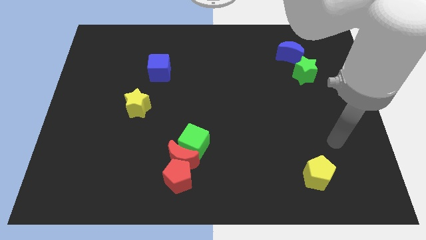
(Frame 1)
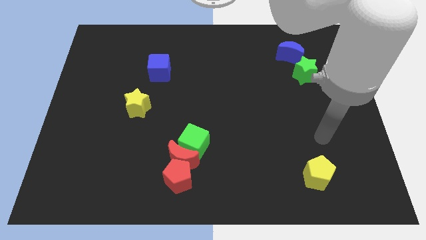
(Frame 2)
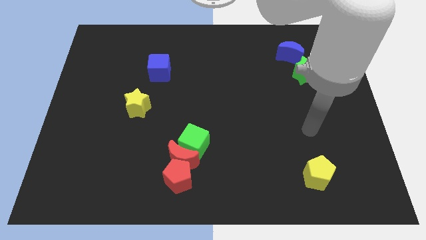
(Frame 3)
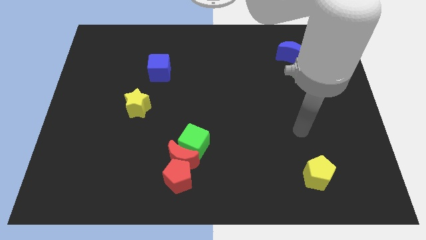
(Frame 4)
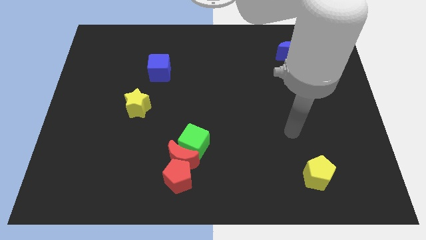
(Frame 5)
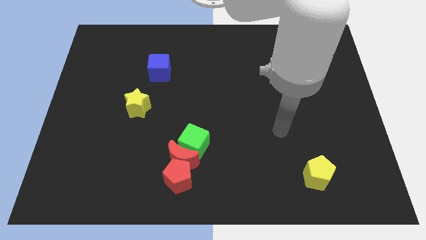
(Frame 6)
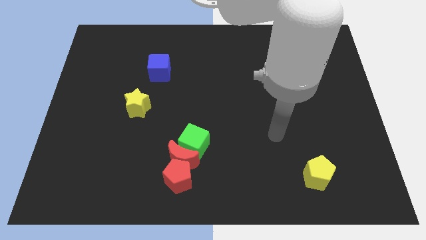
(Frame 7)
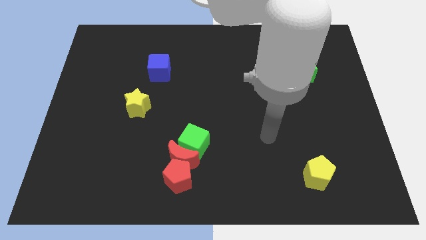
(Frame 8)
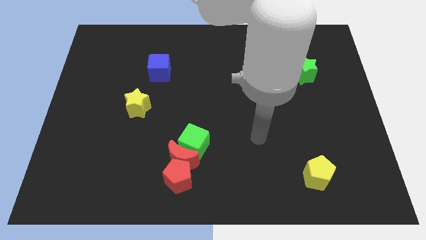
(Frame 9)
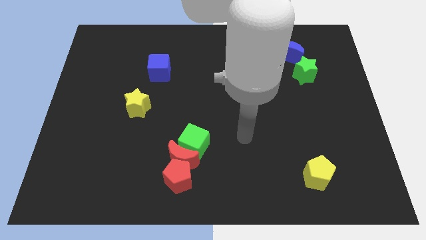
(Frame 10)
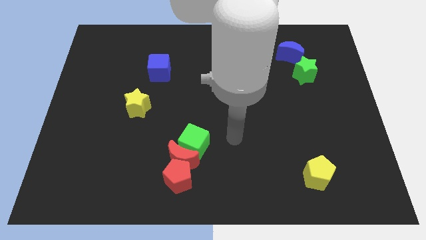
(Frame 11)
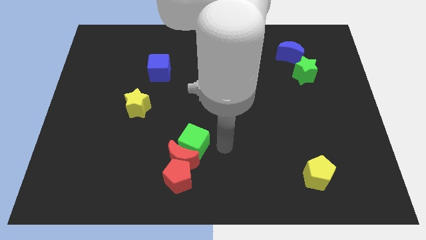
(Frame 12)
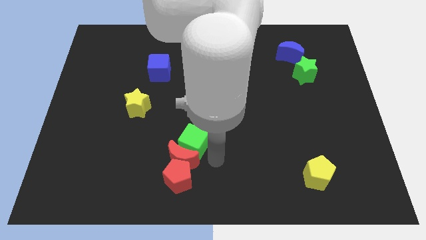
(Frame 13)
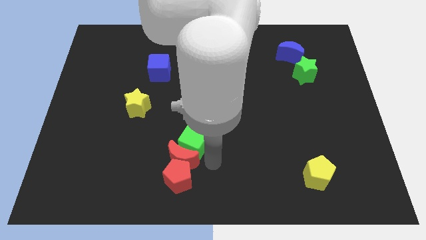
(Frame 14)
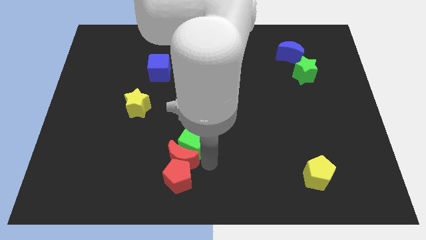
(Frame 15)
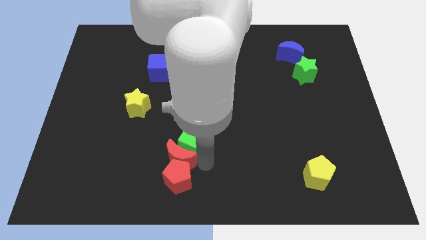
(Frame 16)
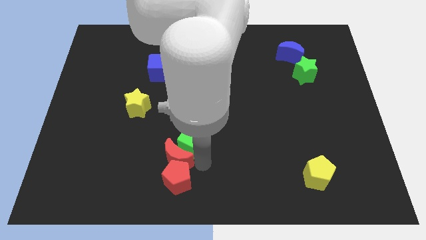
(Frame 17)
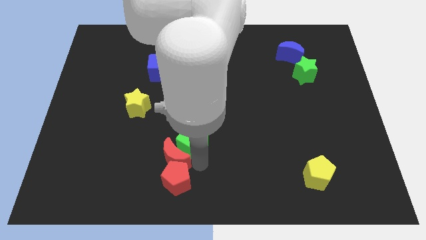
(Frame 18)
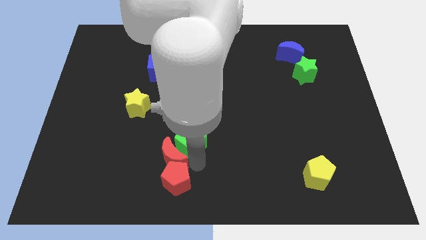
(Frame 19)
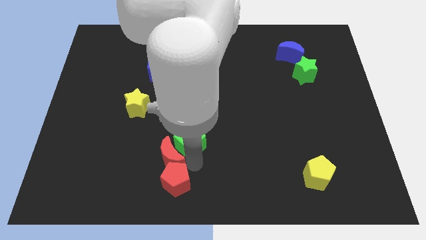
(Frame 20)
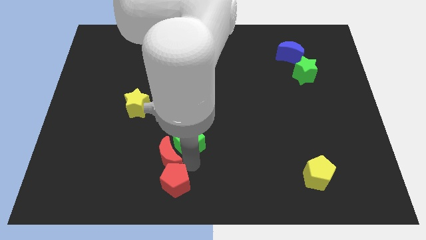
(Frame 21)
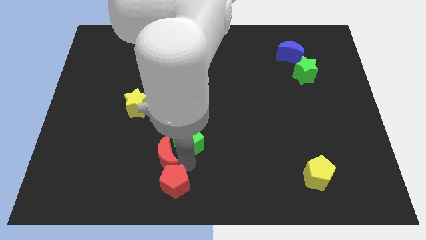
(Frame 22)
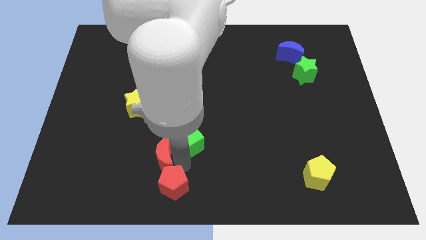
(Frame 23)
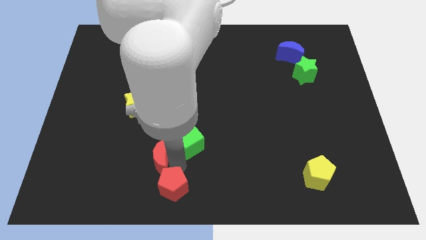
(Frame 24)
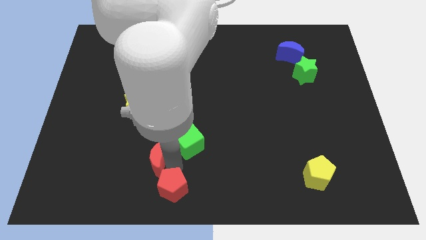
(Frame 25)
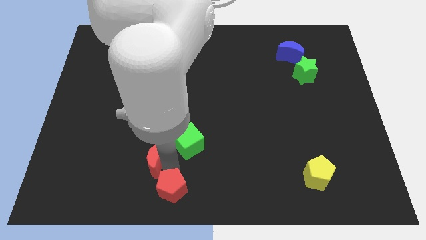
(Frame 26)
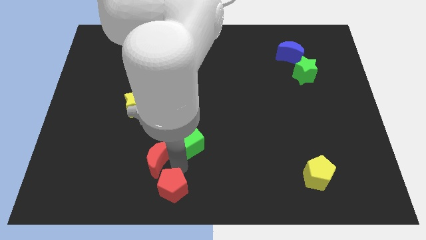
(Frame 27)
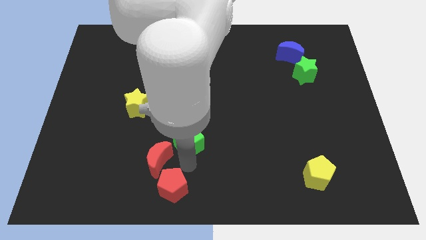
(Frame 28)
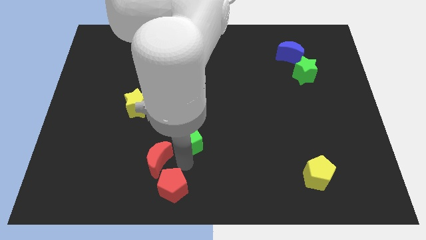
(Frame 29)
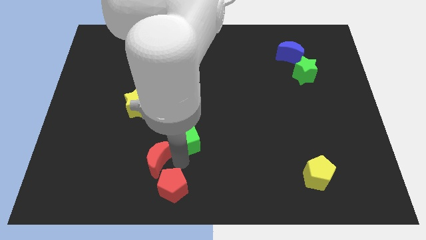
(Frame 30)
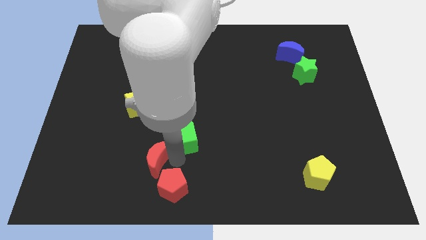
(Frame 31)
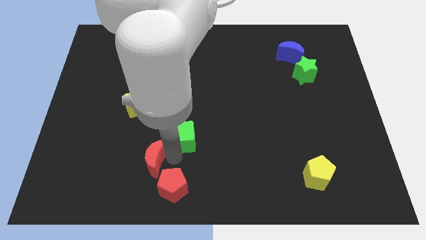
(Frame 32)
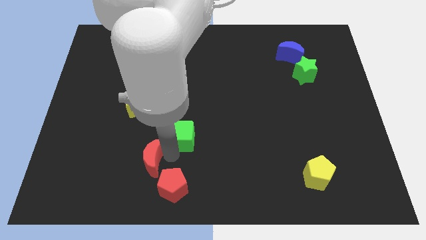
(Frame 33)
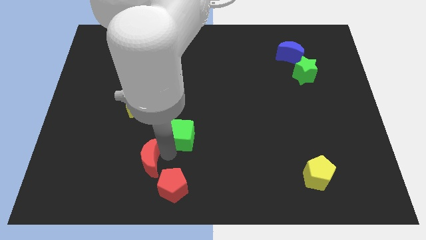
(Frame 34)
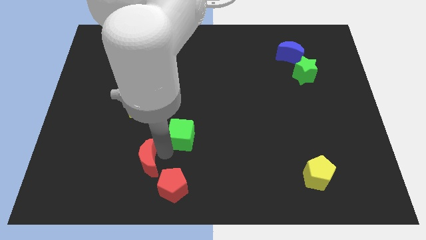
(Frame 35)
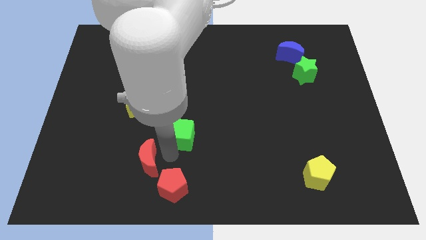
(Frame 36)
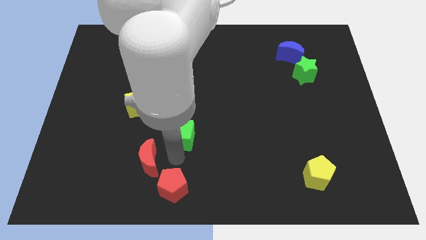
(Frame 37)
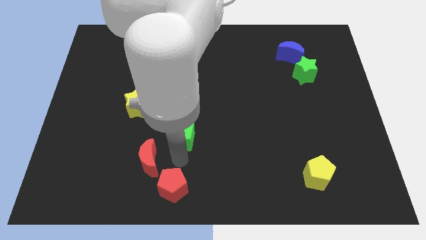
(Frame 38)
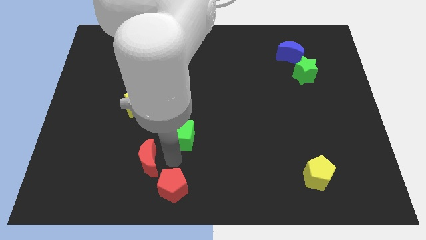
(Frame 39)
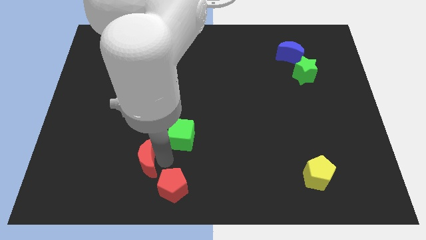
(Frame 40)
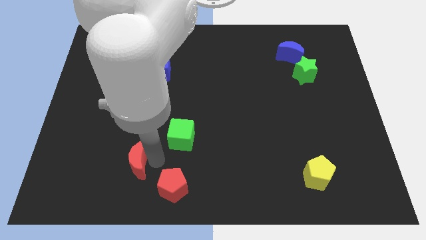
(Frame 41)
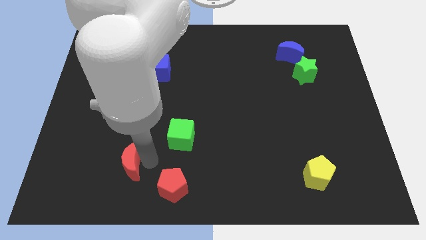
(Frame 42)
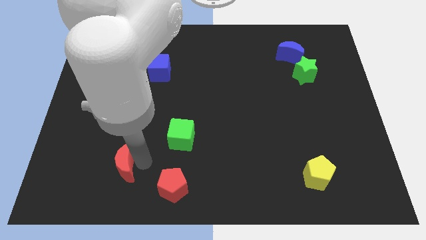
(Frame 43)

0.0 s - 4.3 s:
move the red moon away from the red pentagon and green cube

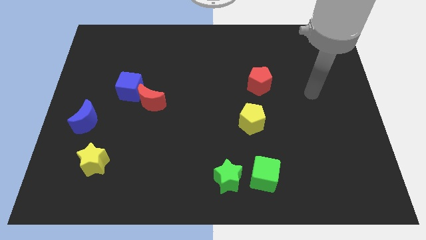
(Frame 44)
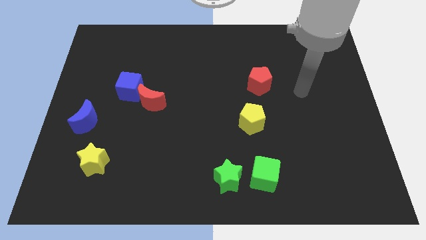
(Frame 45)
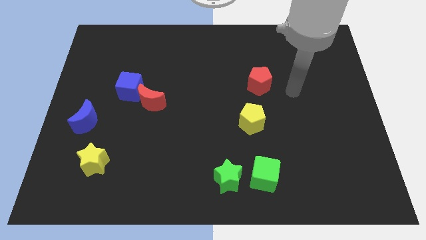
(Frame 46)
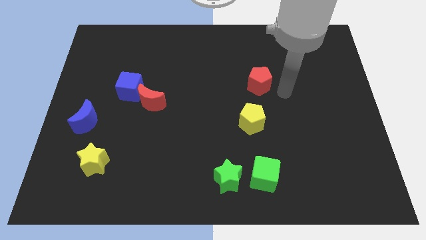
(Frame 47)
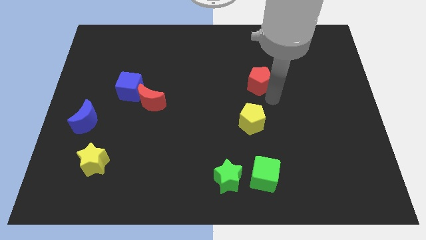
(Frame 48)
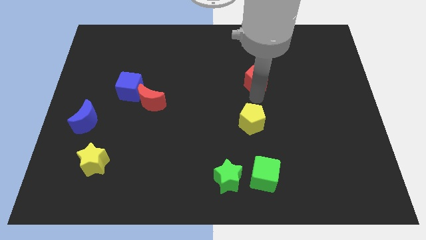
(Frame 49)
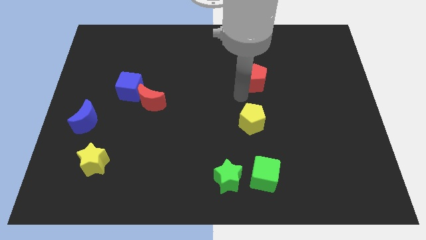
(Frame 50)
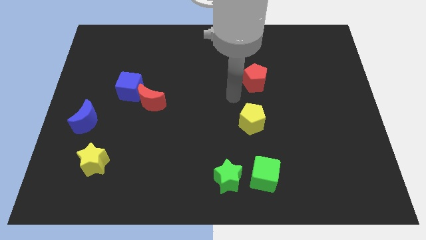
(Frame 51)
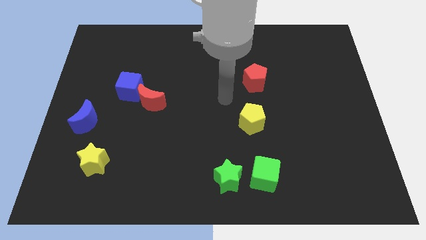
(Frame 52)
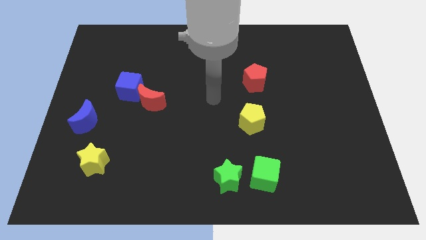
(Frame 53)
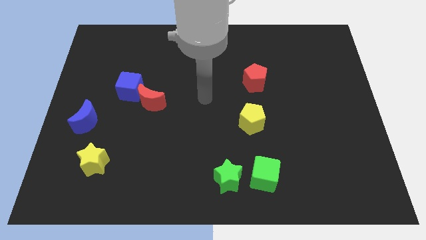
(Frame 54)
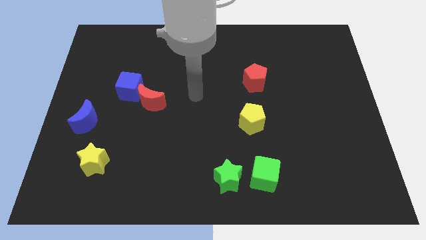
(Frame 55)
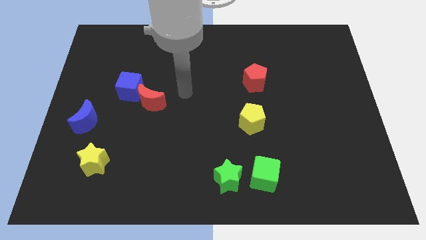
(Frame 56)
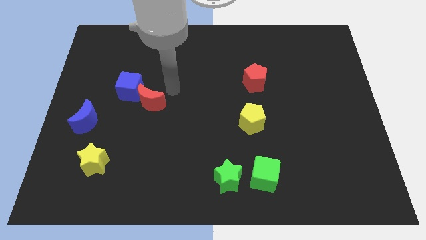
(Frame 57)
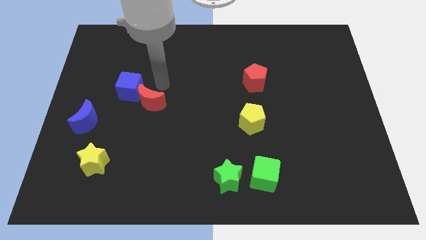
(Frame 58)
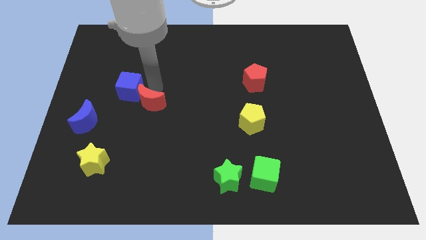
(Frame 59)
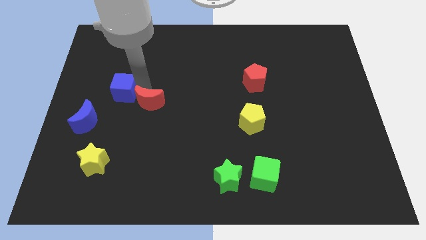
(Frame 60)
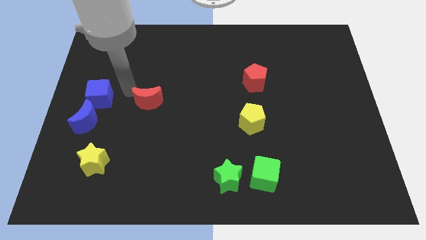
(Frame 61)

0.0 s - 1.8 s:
separate the red moon from the blue cube

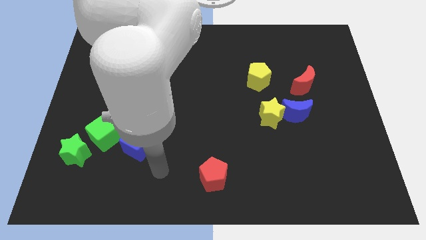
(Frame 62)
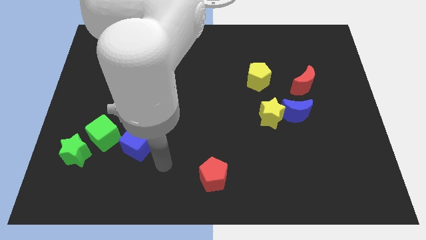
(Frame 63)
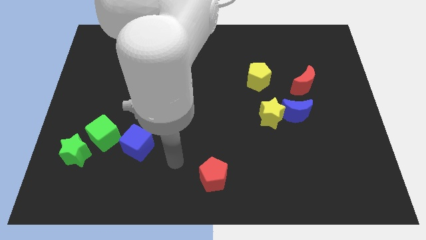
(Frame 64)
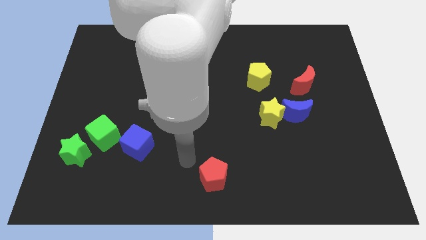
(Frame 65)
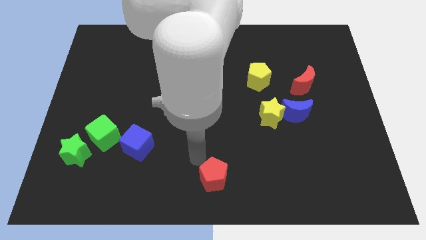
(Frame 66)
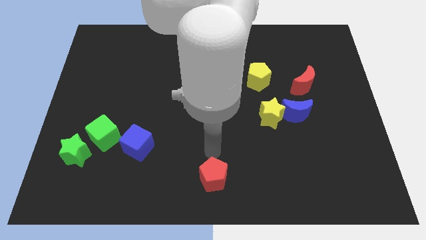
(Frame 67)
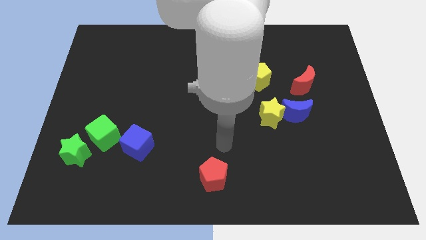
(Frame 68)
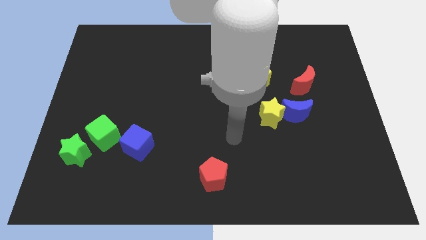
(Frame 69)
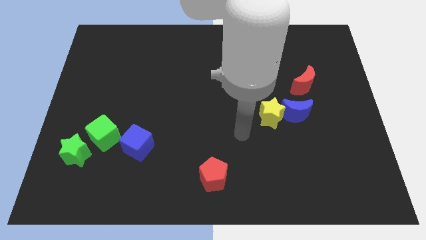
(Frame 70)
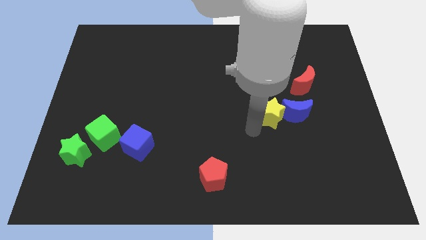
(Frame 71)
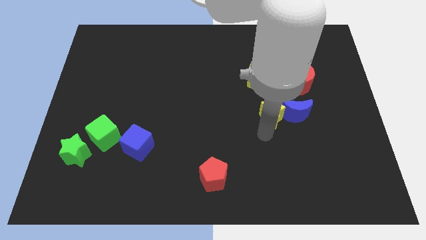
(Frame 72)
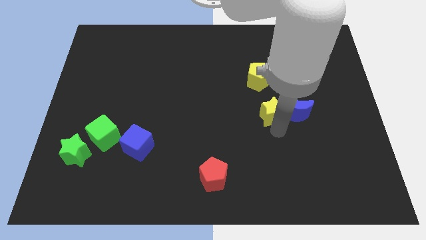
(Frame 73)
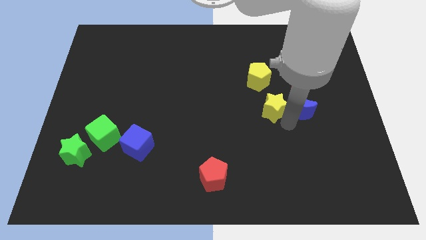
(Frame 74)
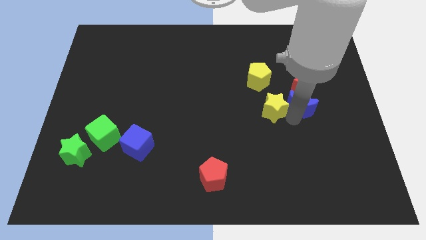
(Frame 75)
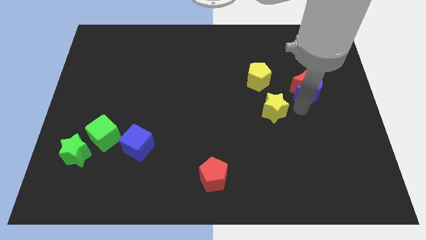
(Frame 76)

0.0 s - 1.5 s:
move the yellow star away from the blue moon

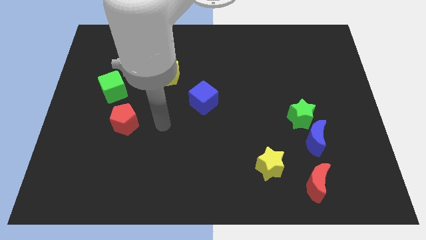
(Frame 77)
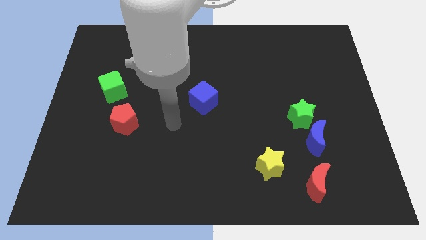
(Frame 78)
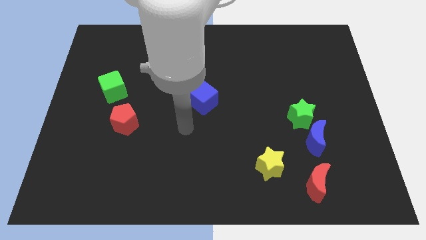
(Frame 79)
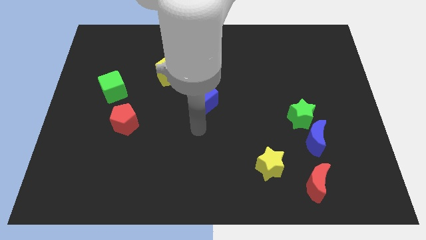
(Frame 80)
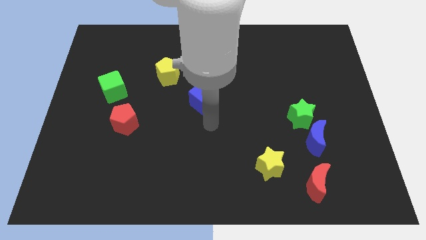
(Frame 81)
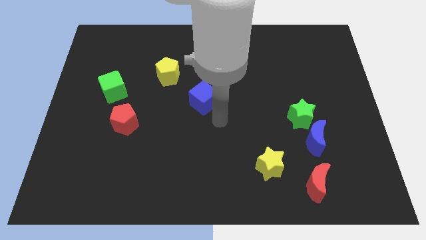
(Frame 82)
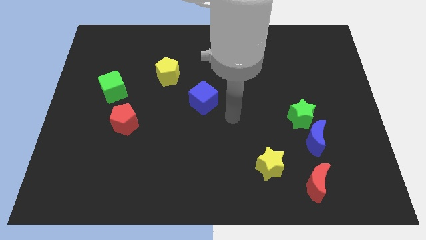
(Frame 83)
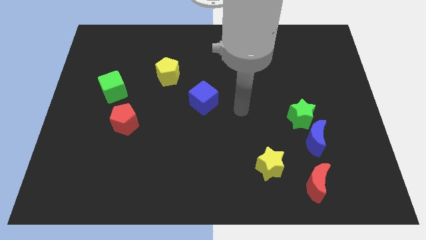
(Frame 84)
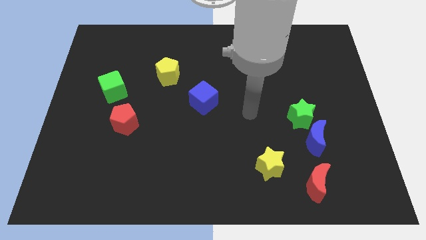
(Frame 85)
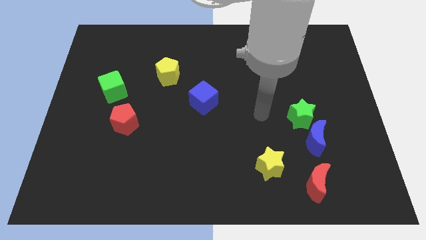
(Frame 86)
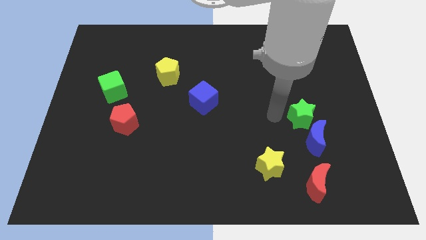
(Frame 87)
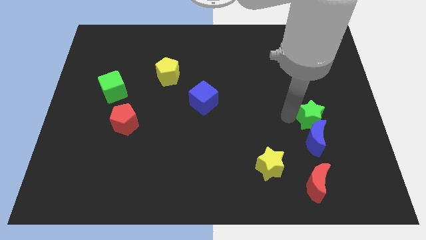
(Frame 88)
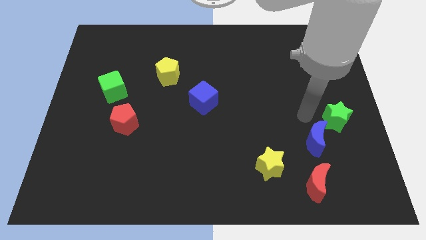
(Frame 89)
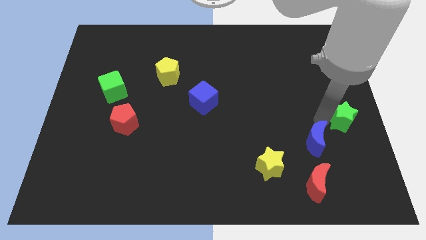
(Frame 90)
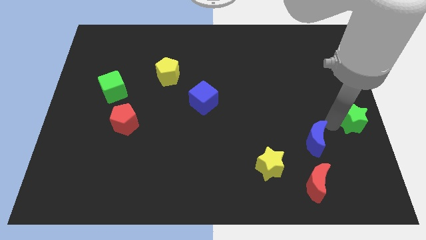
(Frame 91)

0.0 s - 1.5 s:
pull the blue moon apart from the green star

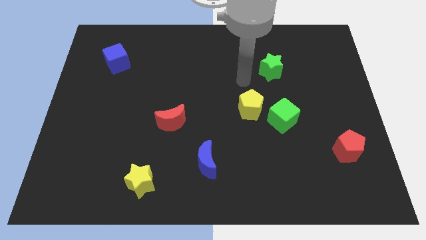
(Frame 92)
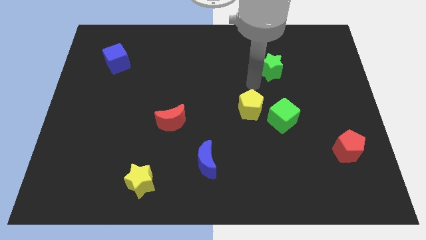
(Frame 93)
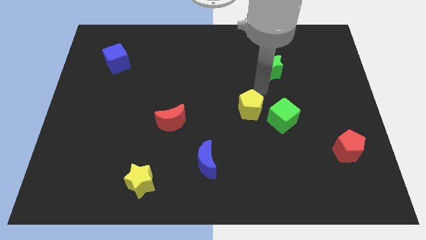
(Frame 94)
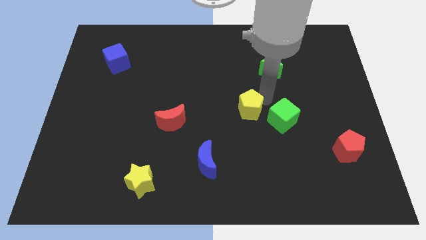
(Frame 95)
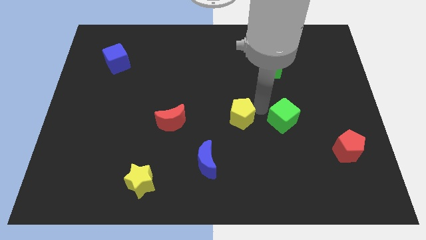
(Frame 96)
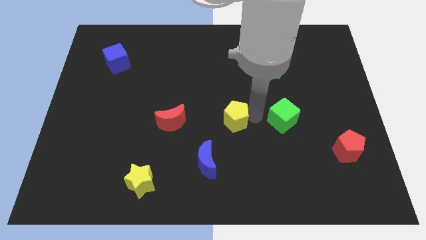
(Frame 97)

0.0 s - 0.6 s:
pull the green cube apart from the yellow pentagon
